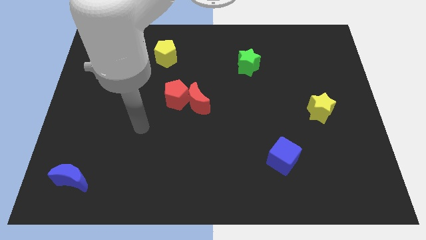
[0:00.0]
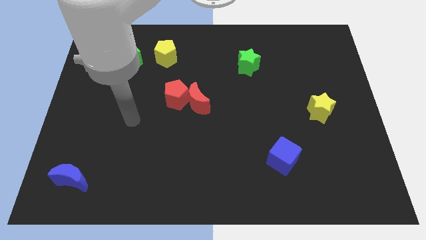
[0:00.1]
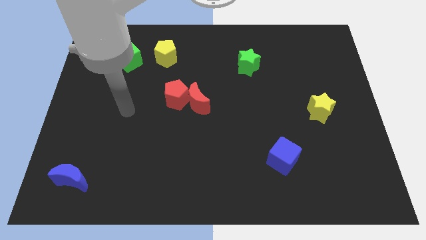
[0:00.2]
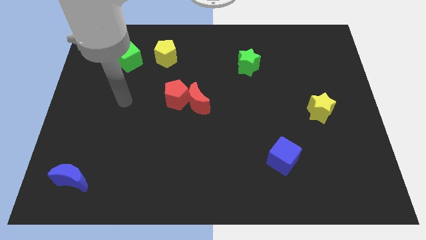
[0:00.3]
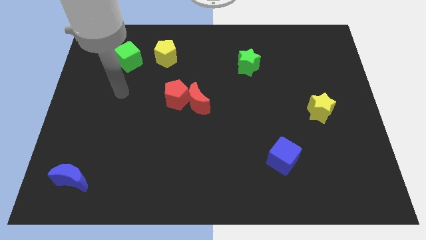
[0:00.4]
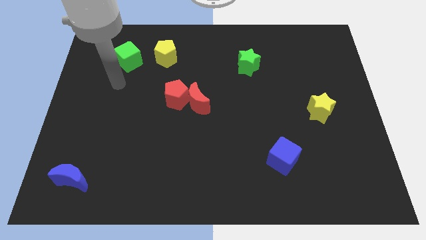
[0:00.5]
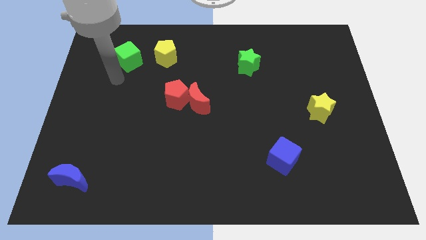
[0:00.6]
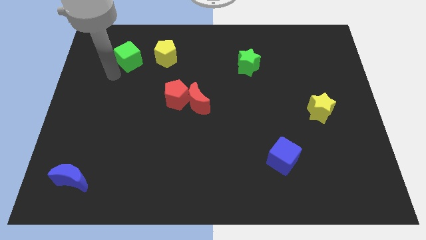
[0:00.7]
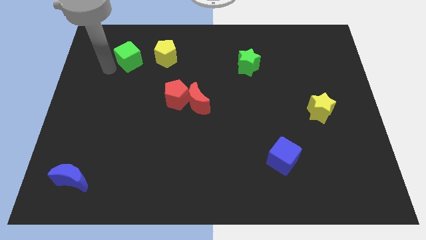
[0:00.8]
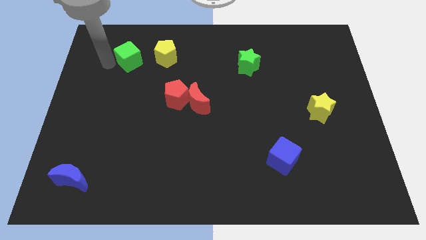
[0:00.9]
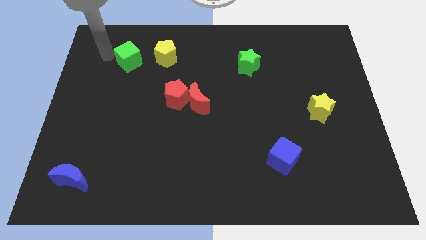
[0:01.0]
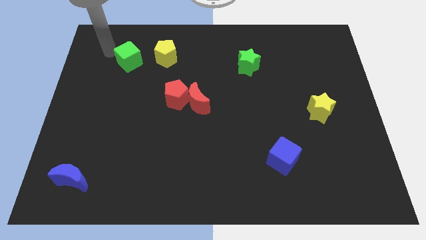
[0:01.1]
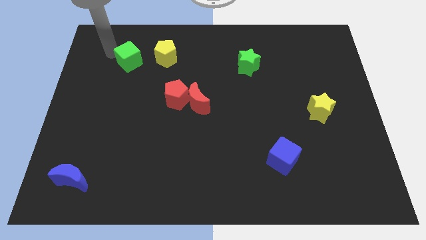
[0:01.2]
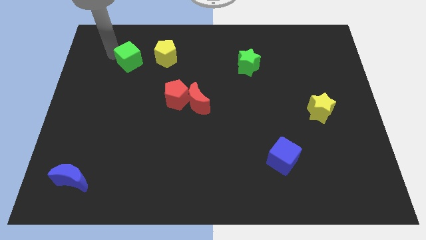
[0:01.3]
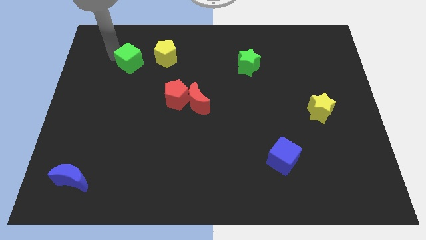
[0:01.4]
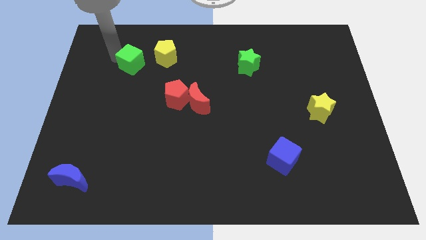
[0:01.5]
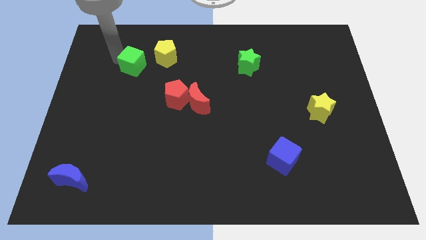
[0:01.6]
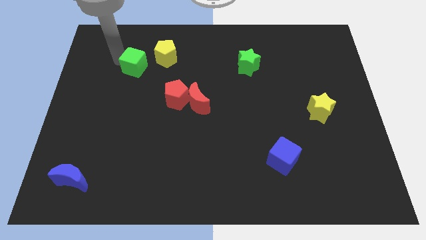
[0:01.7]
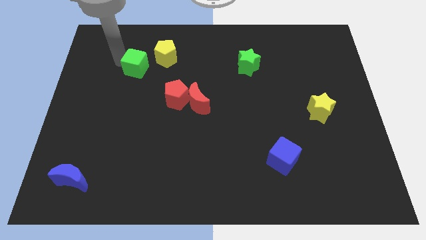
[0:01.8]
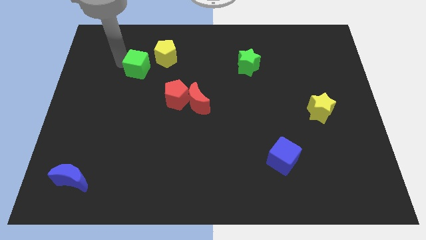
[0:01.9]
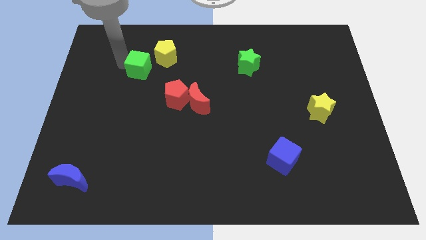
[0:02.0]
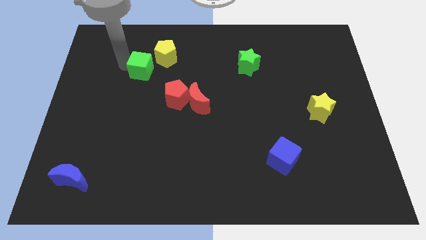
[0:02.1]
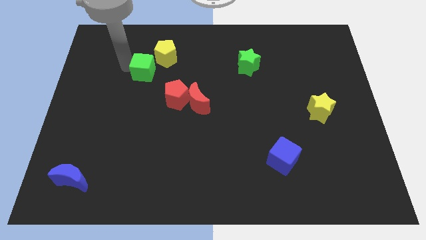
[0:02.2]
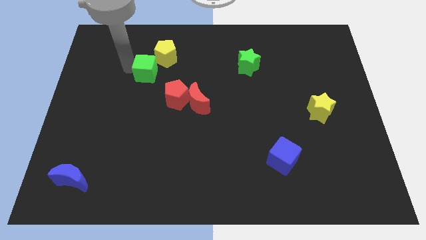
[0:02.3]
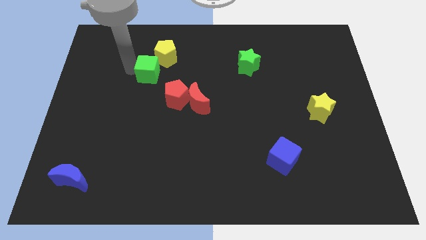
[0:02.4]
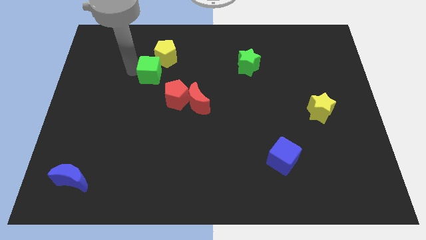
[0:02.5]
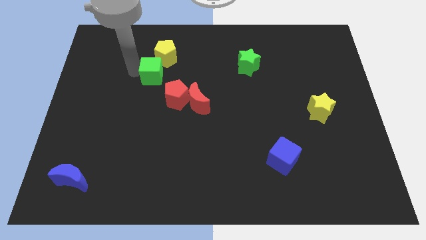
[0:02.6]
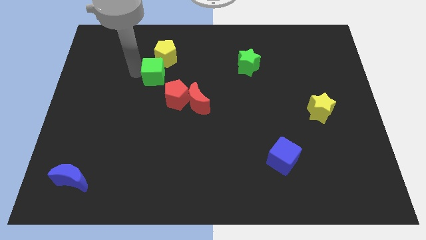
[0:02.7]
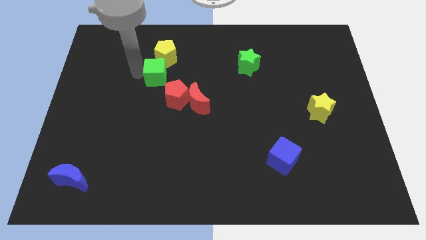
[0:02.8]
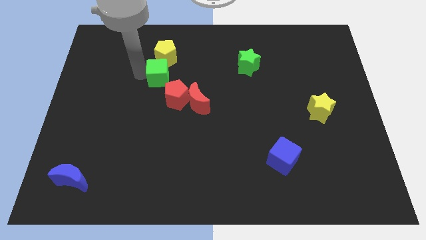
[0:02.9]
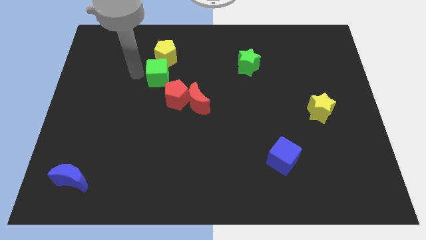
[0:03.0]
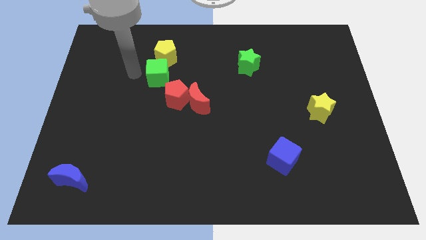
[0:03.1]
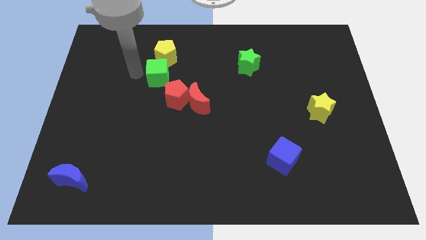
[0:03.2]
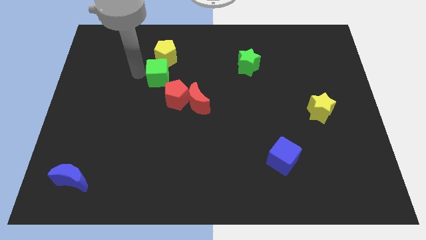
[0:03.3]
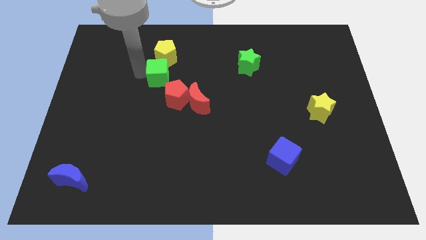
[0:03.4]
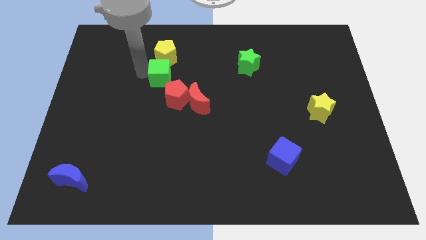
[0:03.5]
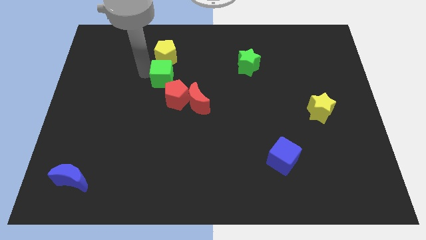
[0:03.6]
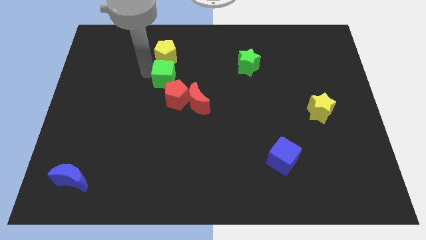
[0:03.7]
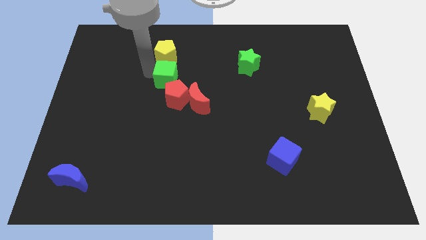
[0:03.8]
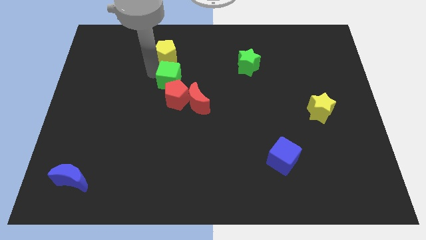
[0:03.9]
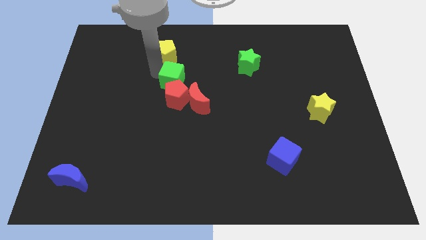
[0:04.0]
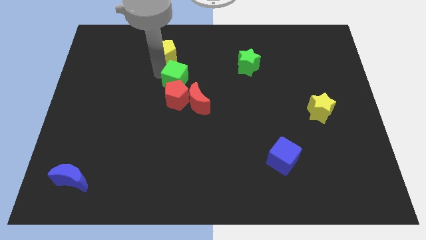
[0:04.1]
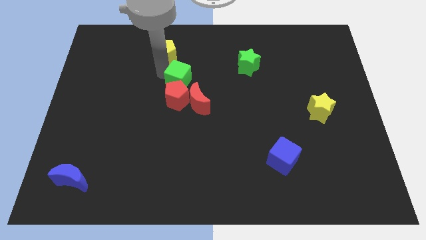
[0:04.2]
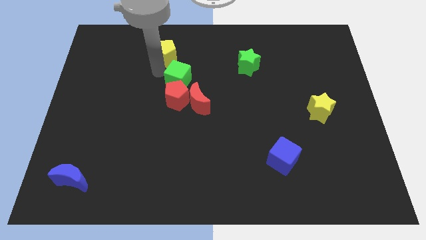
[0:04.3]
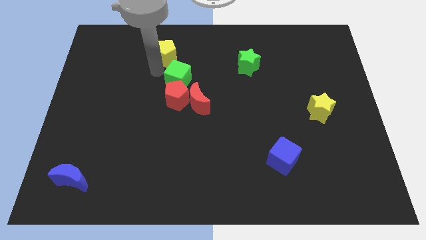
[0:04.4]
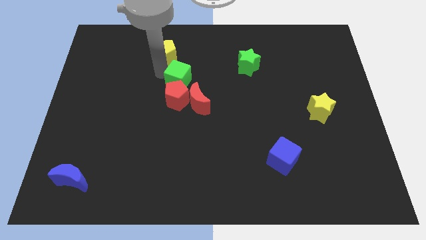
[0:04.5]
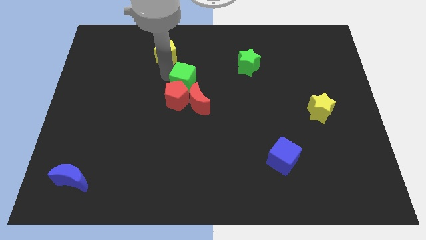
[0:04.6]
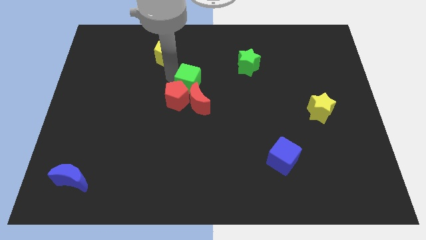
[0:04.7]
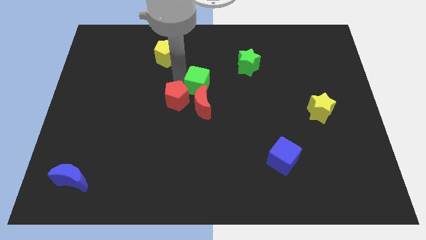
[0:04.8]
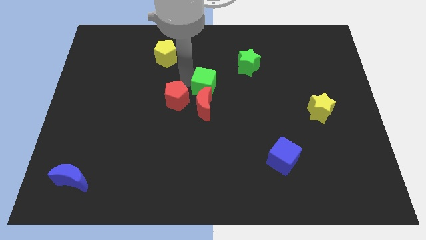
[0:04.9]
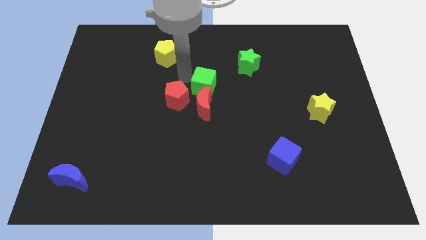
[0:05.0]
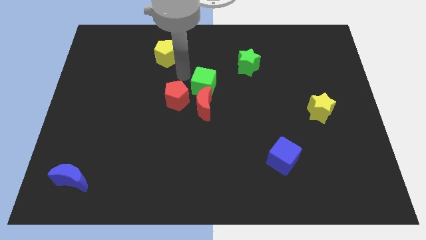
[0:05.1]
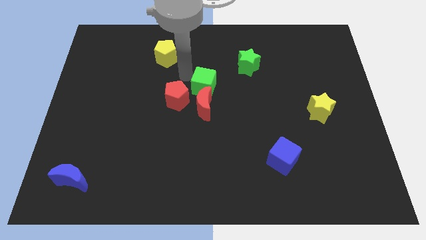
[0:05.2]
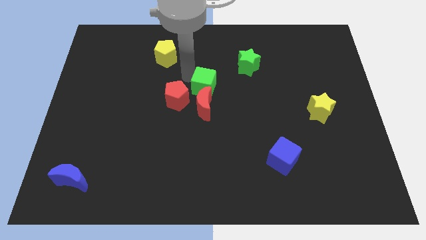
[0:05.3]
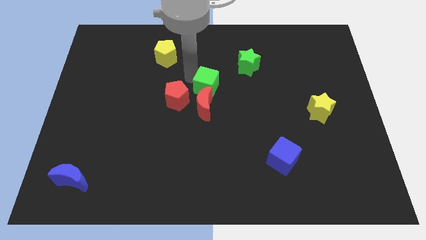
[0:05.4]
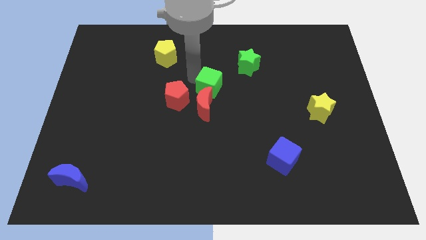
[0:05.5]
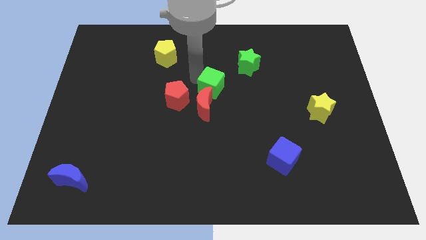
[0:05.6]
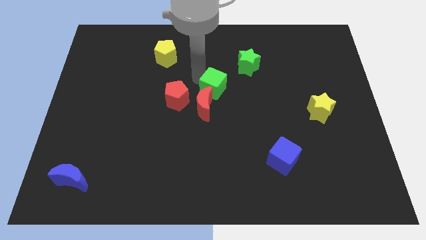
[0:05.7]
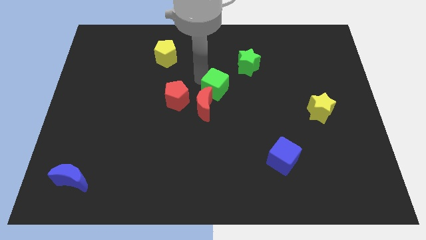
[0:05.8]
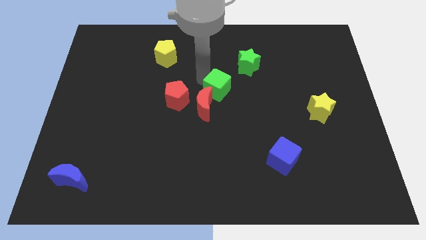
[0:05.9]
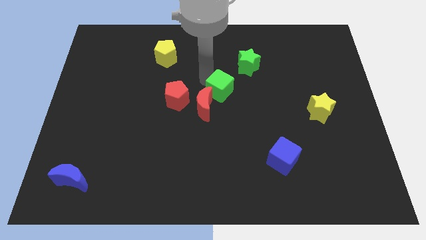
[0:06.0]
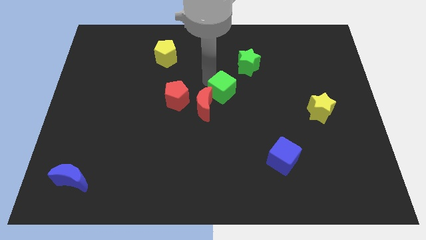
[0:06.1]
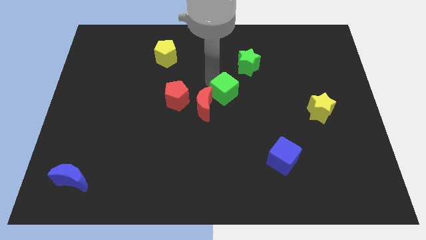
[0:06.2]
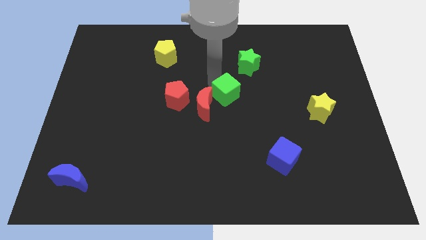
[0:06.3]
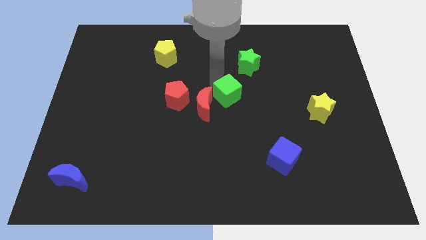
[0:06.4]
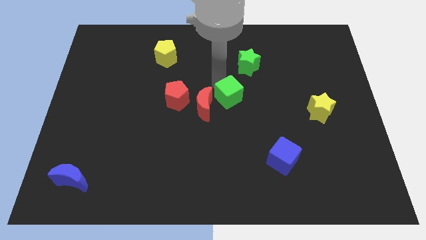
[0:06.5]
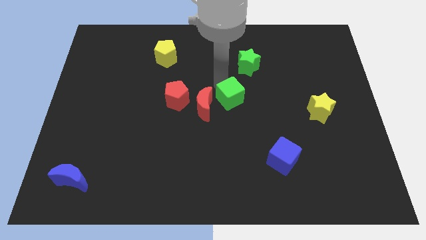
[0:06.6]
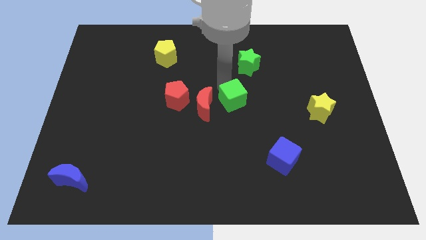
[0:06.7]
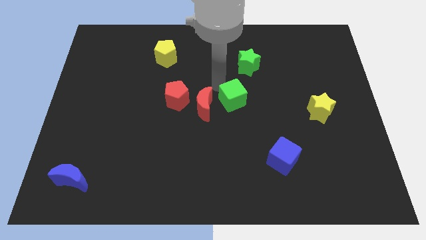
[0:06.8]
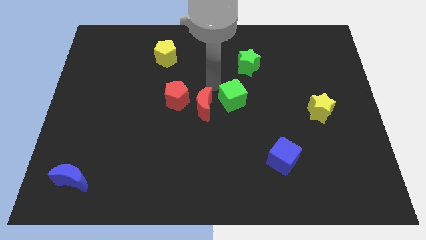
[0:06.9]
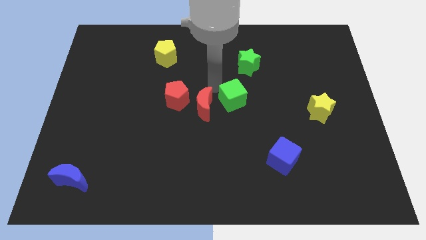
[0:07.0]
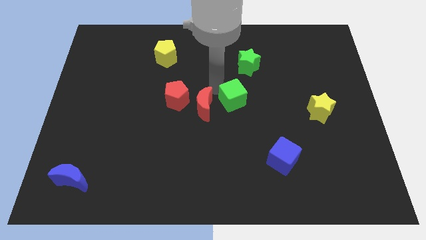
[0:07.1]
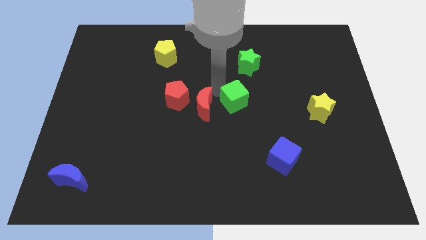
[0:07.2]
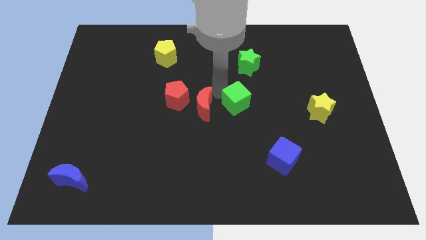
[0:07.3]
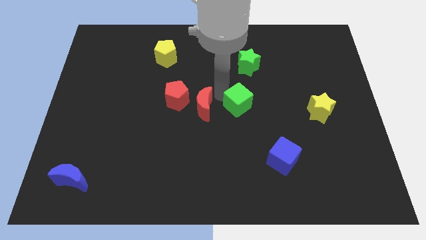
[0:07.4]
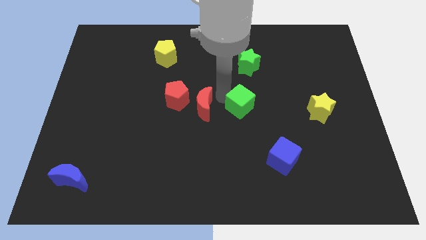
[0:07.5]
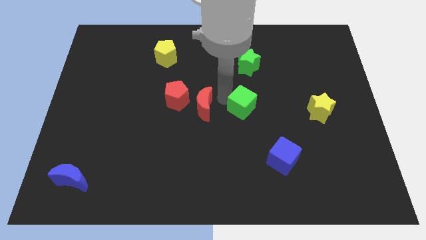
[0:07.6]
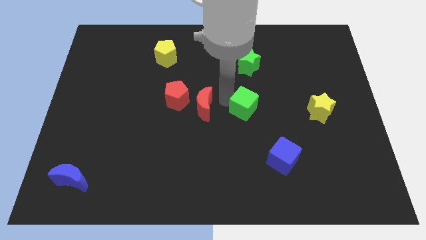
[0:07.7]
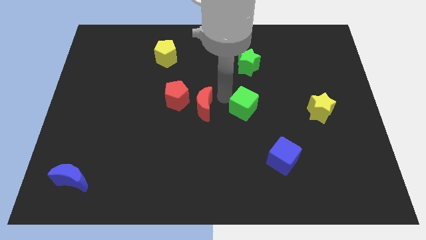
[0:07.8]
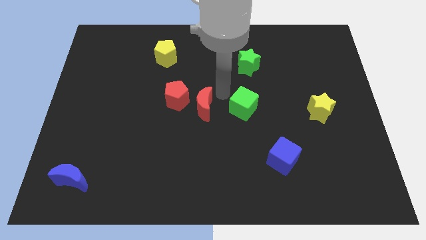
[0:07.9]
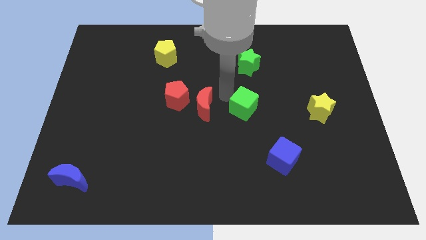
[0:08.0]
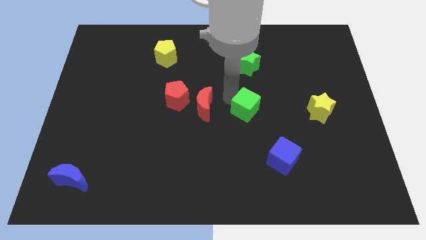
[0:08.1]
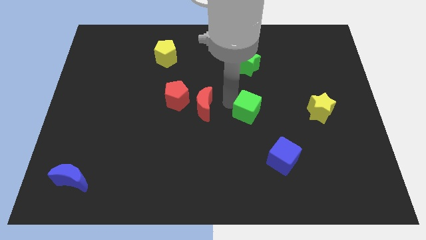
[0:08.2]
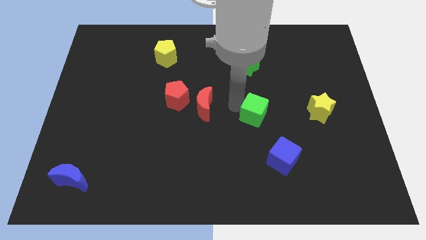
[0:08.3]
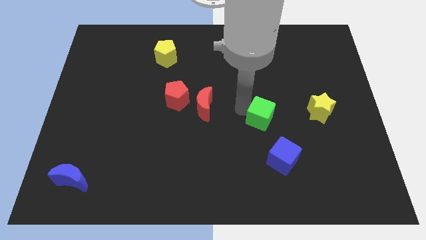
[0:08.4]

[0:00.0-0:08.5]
move the green cube above the blue cube
